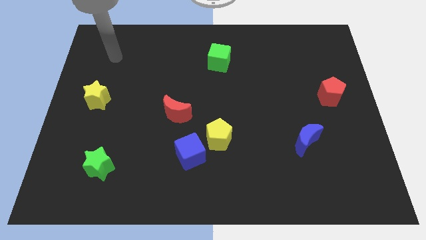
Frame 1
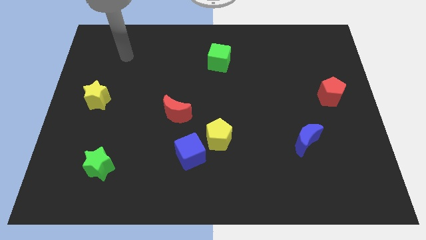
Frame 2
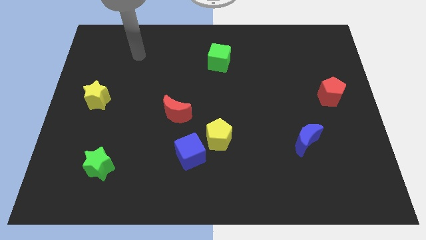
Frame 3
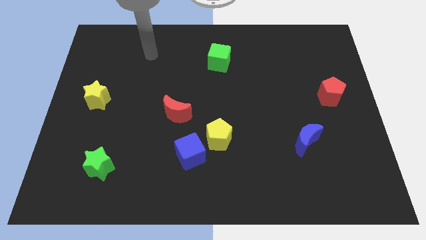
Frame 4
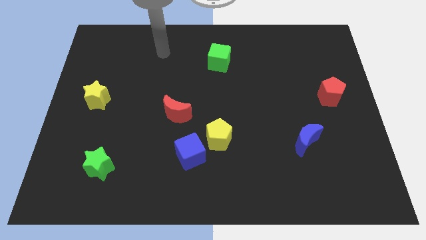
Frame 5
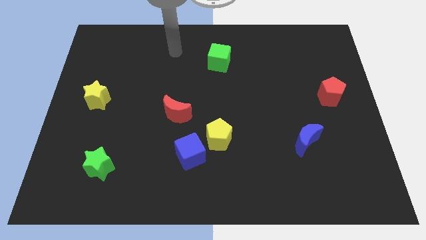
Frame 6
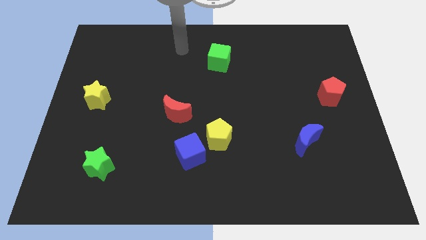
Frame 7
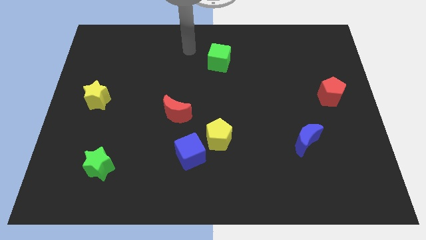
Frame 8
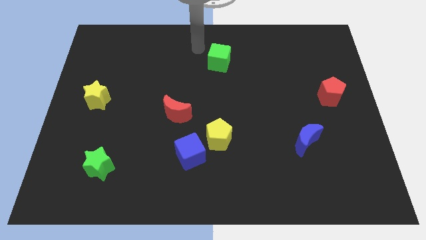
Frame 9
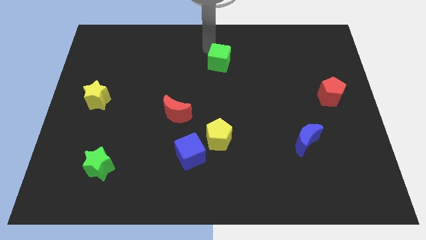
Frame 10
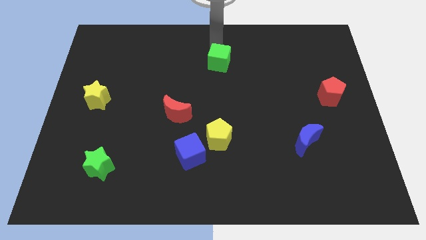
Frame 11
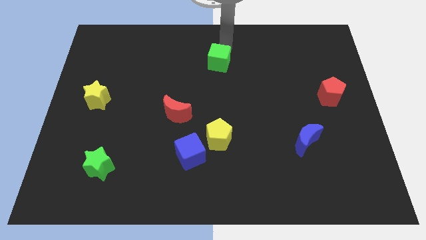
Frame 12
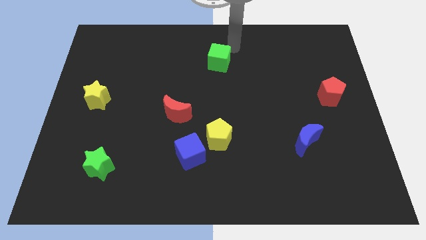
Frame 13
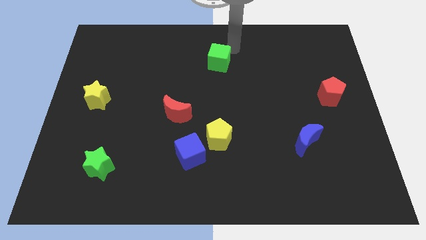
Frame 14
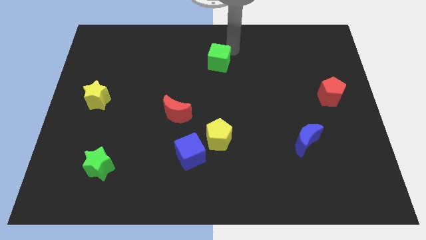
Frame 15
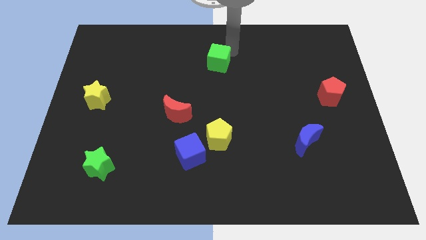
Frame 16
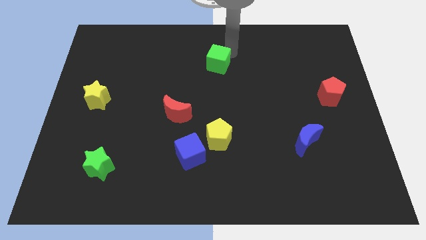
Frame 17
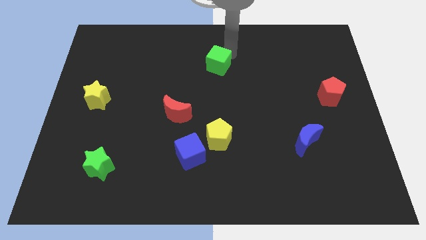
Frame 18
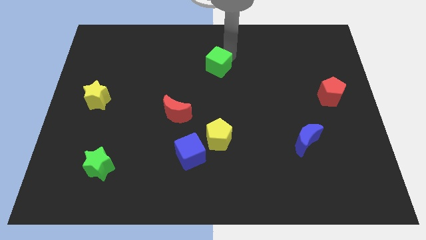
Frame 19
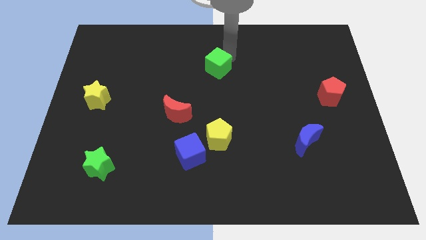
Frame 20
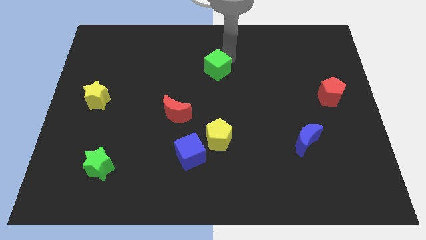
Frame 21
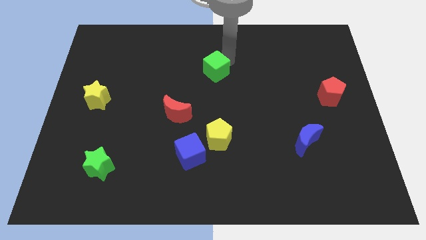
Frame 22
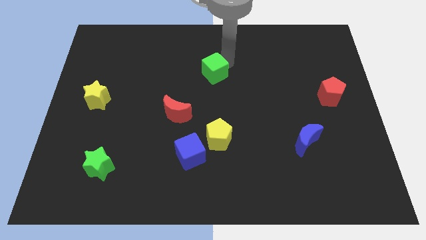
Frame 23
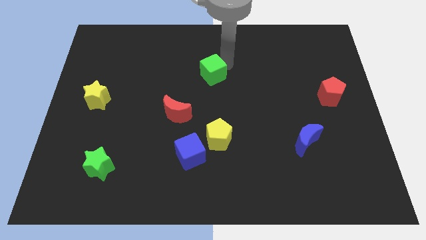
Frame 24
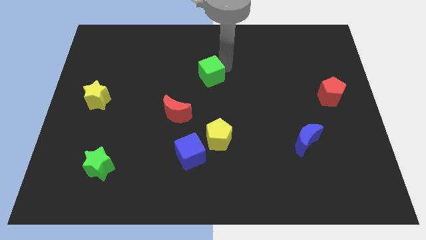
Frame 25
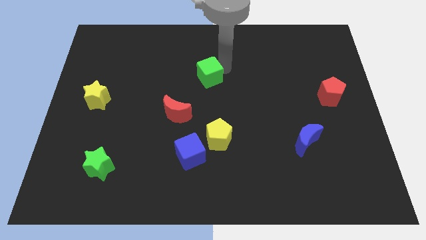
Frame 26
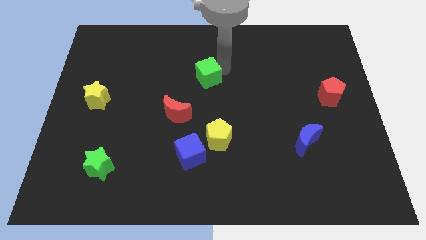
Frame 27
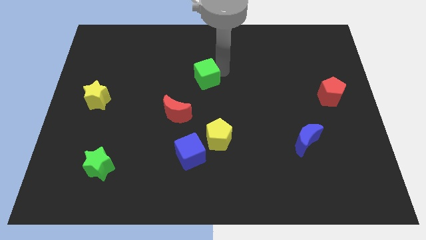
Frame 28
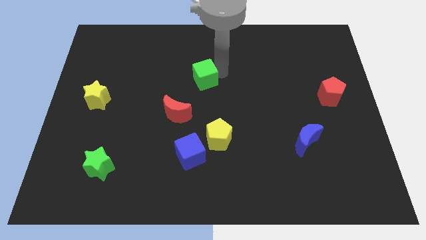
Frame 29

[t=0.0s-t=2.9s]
slightly push the green cube down and left diagonally

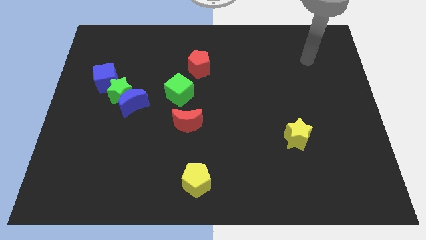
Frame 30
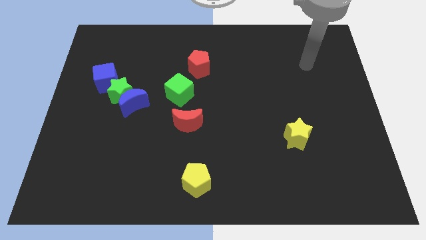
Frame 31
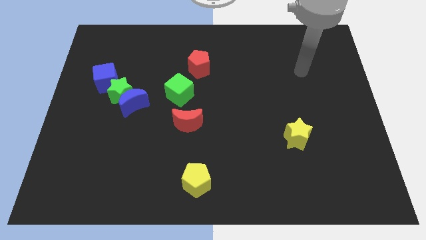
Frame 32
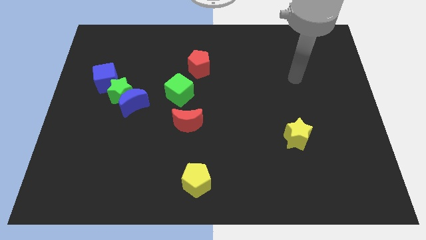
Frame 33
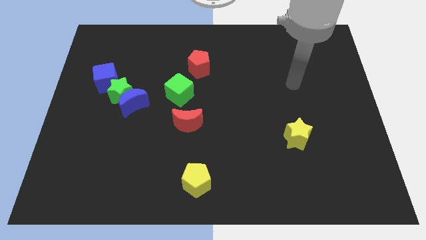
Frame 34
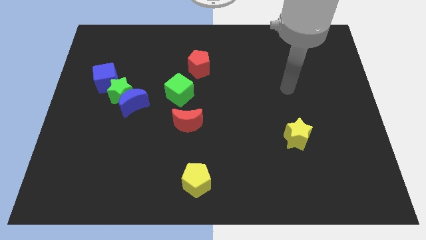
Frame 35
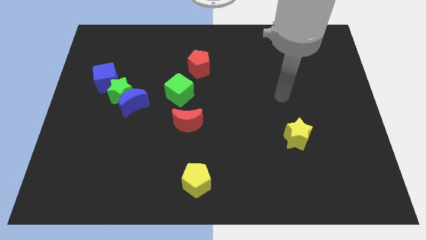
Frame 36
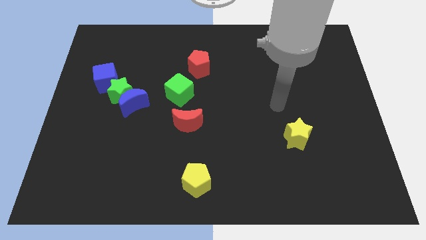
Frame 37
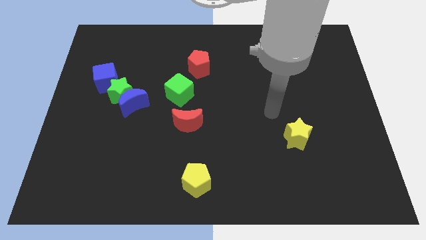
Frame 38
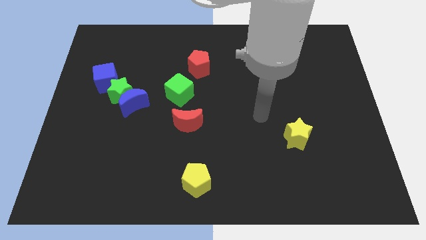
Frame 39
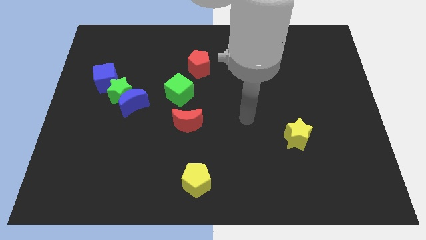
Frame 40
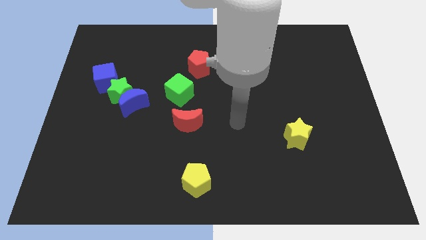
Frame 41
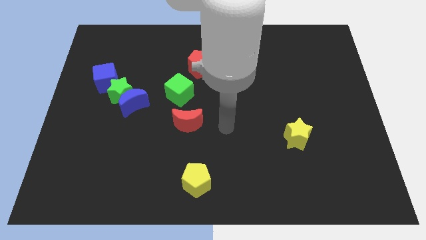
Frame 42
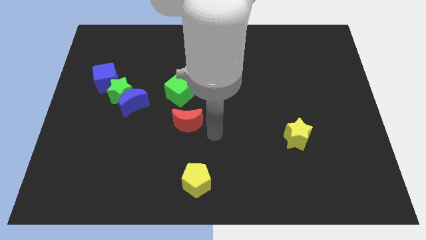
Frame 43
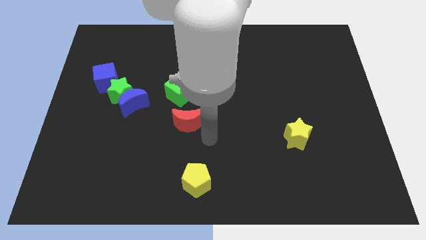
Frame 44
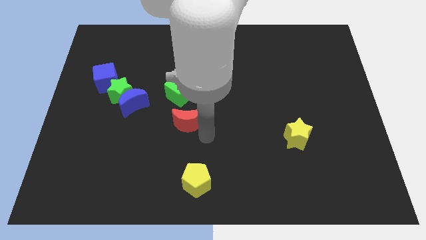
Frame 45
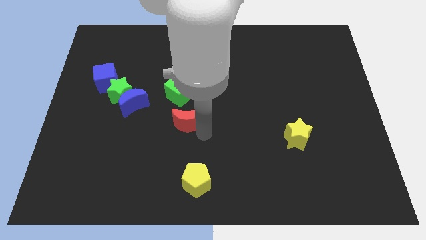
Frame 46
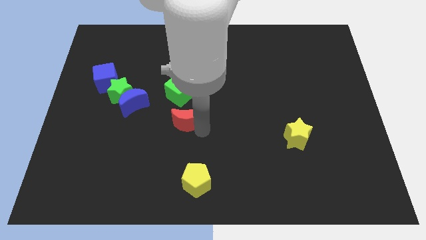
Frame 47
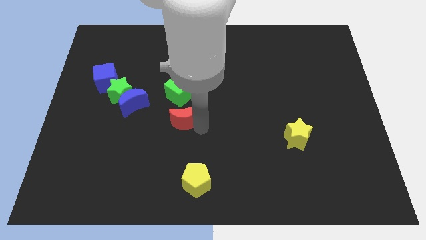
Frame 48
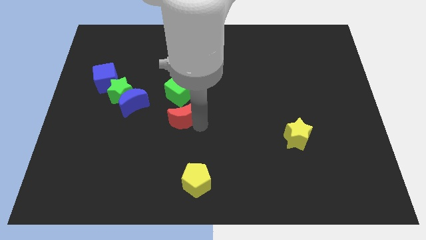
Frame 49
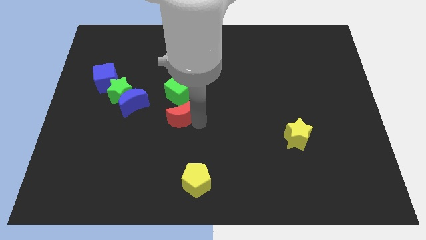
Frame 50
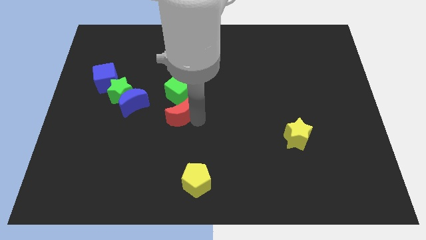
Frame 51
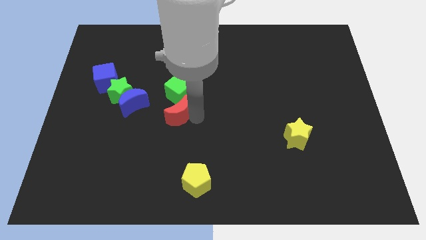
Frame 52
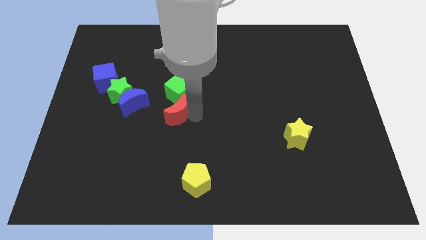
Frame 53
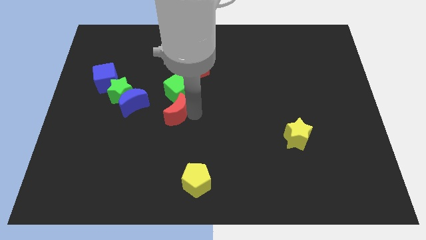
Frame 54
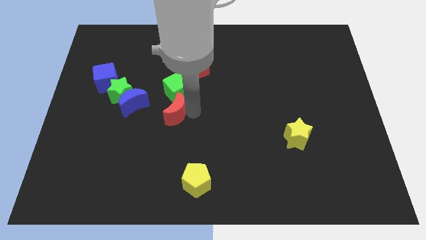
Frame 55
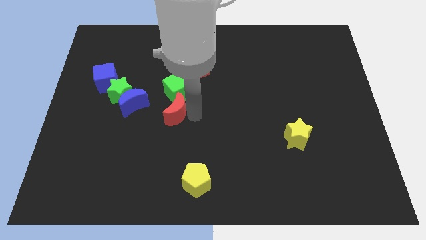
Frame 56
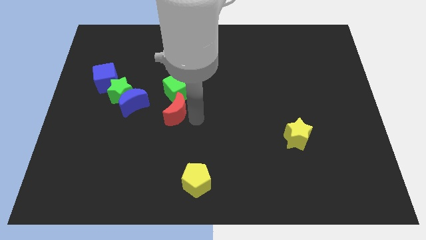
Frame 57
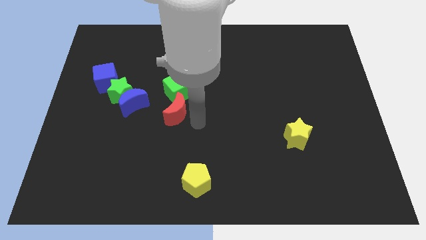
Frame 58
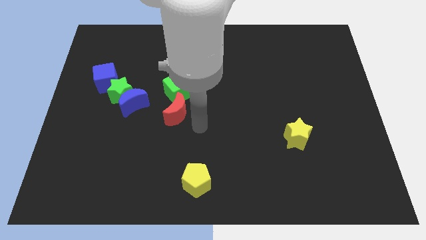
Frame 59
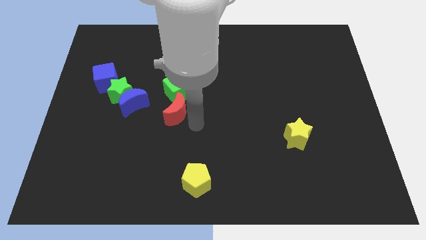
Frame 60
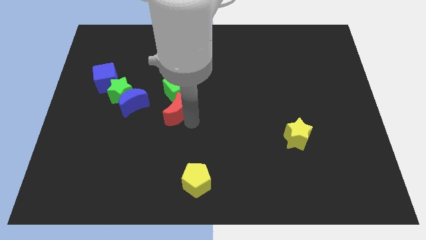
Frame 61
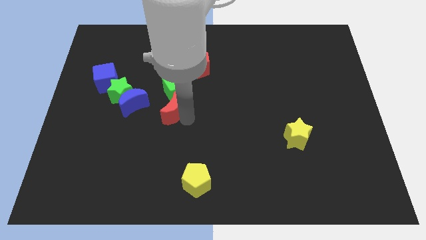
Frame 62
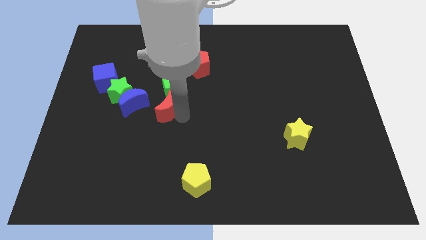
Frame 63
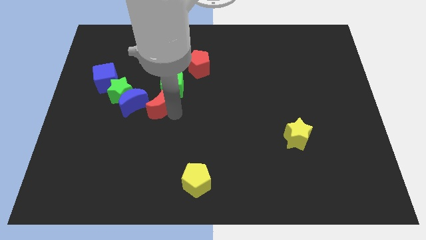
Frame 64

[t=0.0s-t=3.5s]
push the red moon upwards and to the left a little

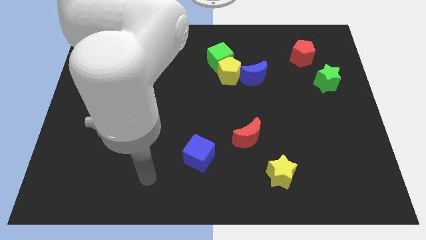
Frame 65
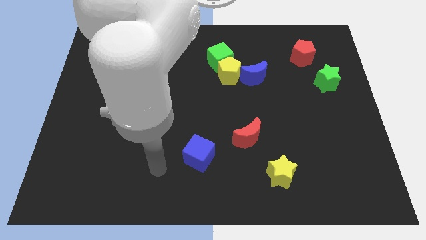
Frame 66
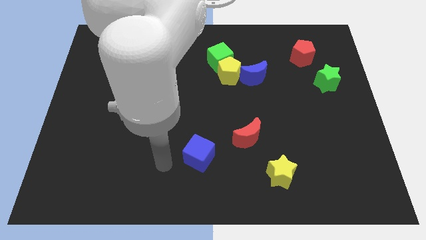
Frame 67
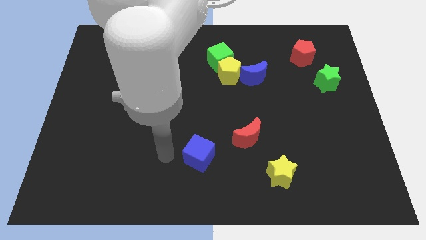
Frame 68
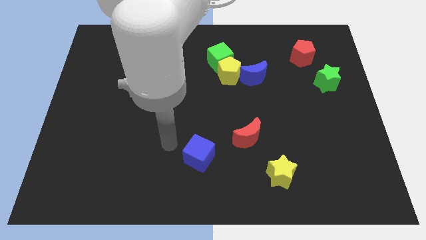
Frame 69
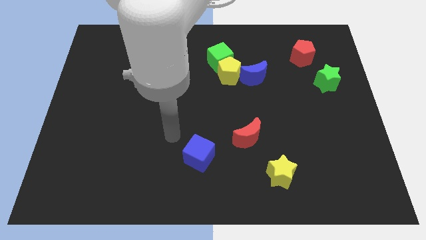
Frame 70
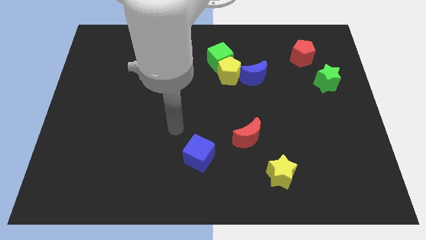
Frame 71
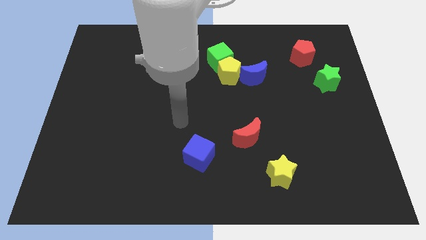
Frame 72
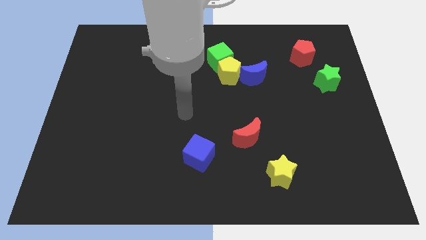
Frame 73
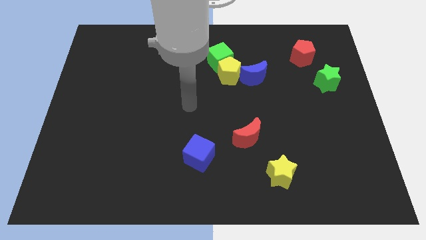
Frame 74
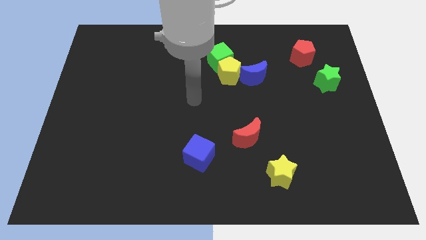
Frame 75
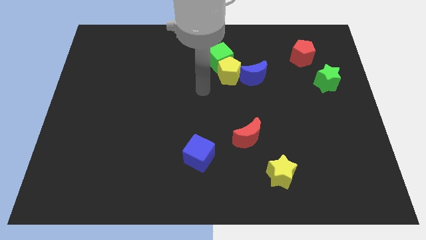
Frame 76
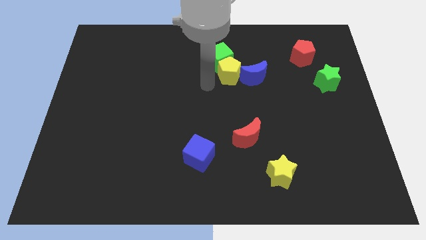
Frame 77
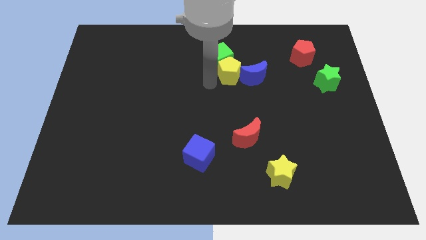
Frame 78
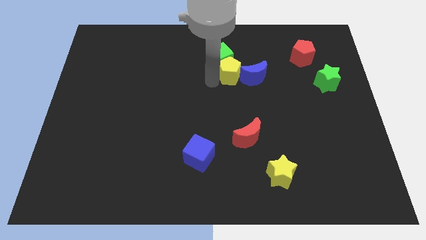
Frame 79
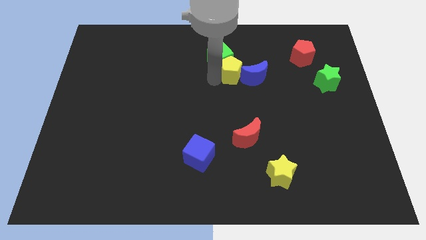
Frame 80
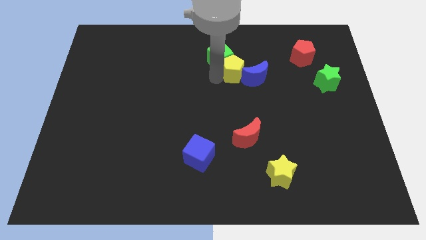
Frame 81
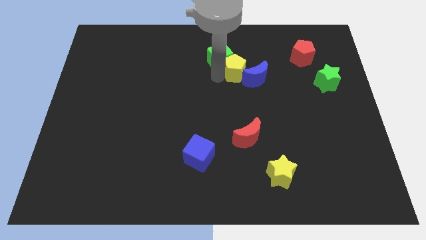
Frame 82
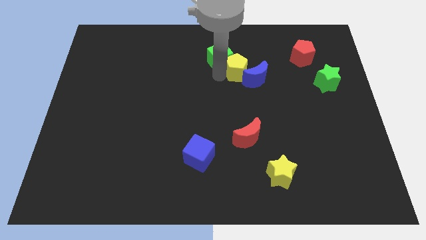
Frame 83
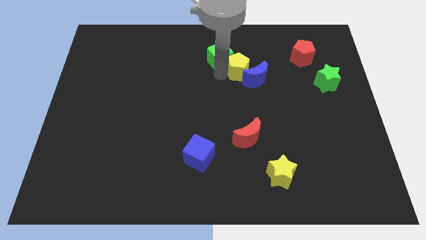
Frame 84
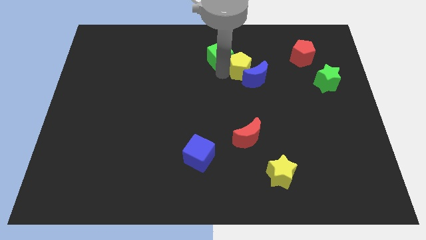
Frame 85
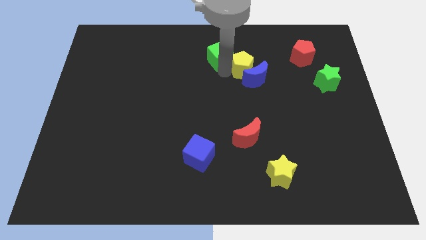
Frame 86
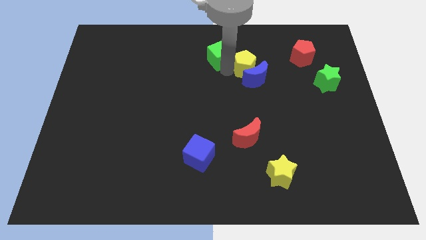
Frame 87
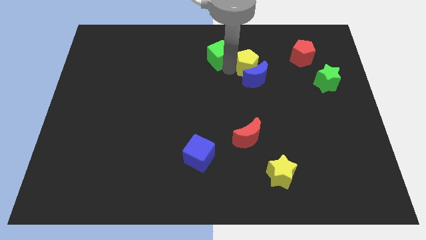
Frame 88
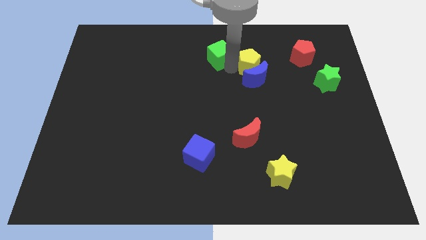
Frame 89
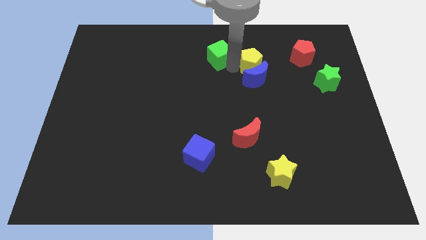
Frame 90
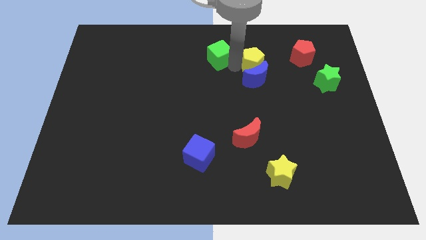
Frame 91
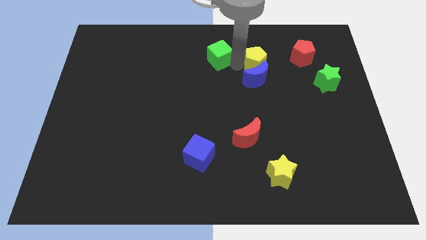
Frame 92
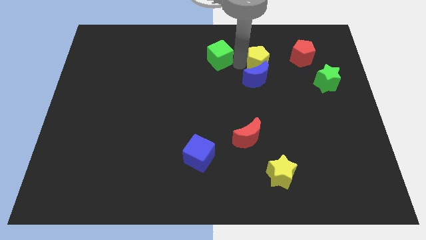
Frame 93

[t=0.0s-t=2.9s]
slightly move the yellow pentagon to the right
